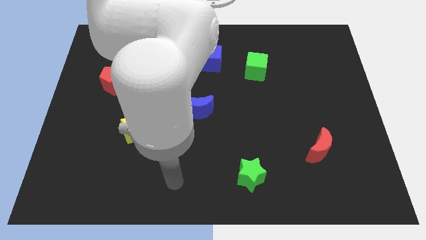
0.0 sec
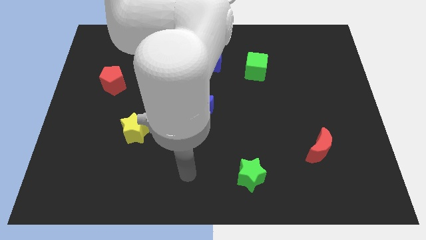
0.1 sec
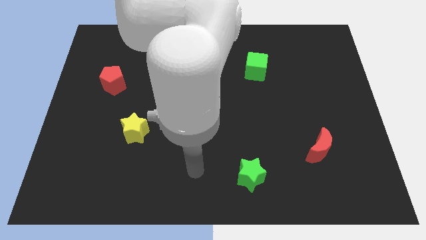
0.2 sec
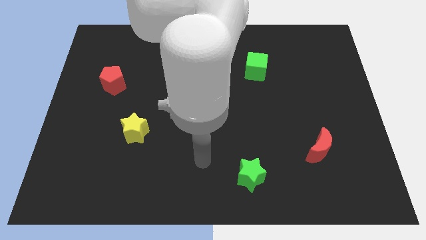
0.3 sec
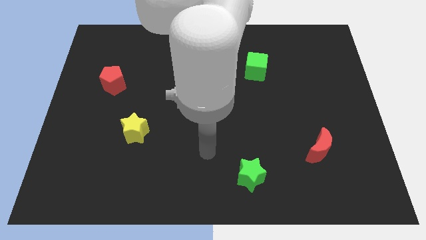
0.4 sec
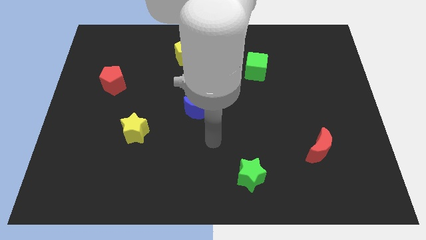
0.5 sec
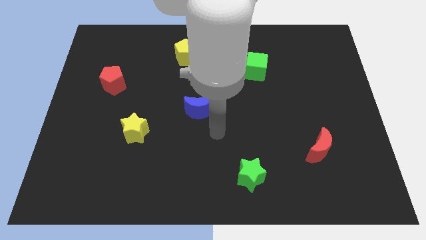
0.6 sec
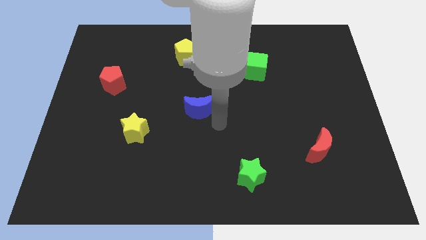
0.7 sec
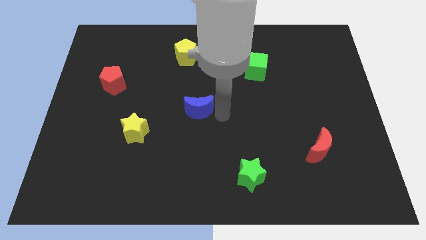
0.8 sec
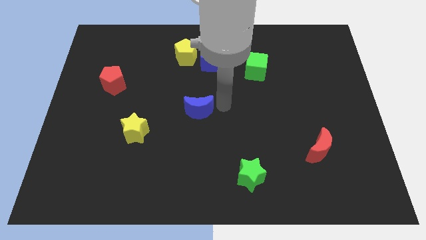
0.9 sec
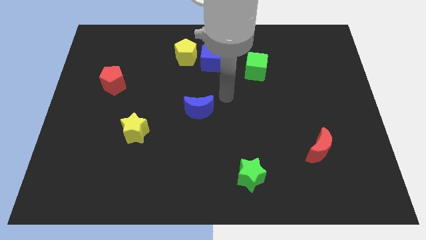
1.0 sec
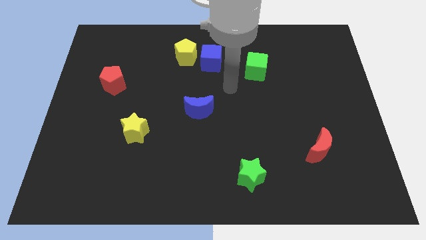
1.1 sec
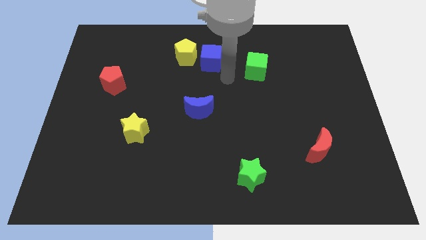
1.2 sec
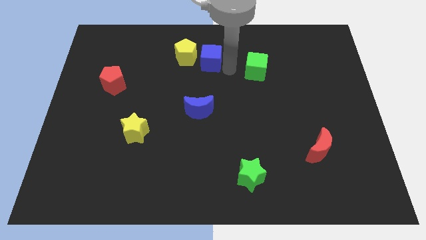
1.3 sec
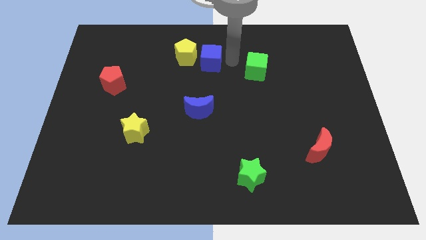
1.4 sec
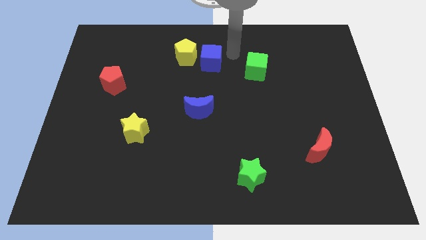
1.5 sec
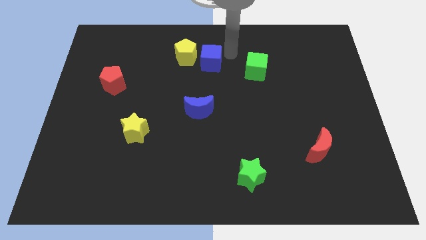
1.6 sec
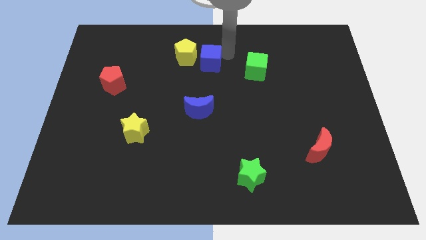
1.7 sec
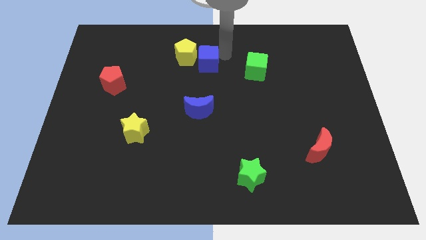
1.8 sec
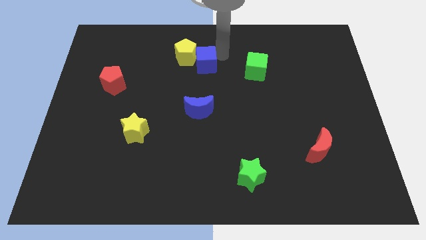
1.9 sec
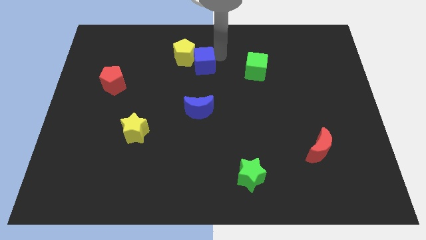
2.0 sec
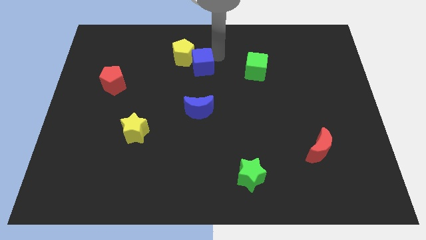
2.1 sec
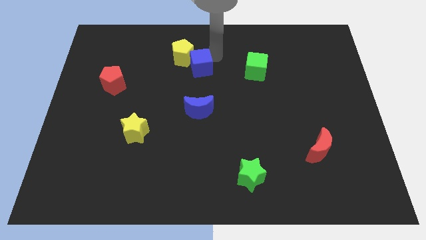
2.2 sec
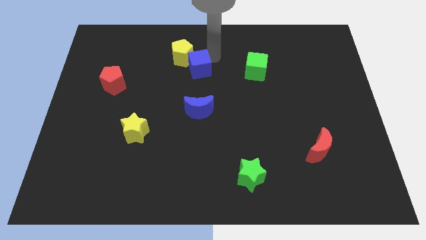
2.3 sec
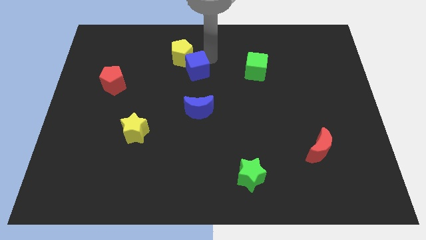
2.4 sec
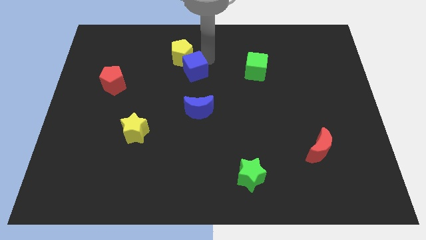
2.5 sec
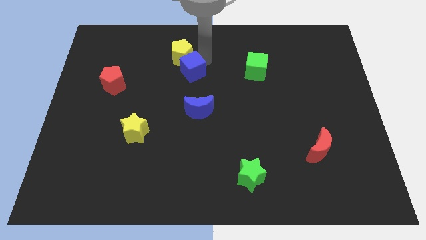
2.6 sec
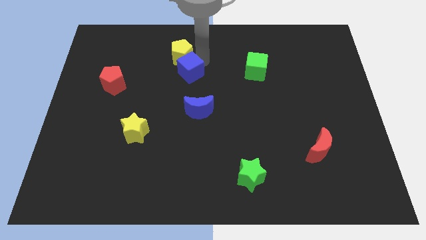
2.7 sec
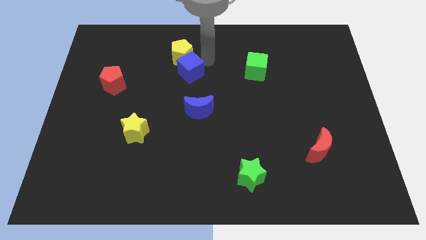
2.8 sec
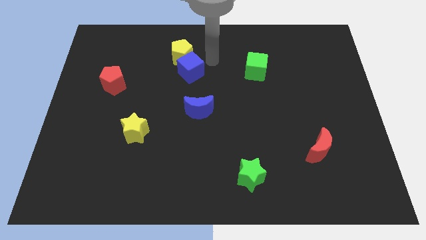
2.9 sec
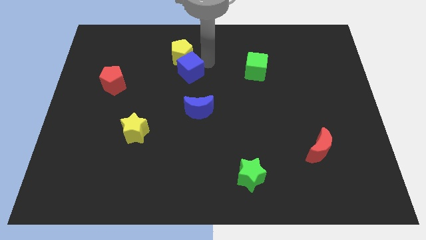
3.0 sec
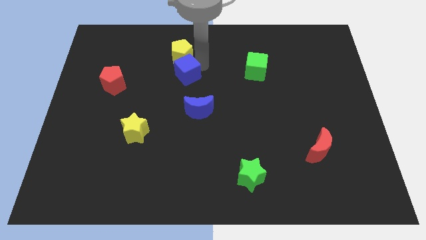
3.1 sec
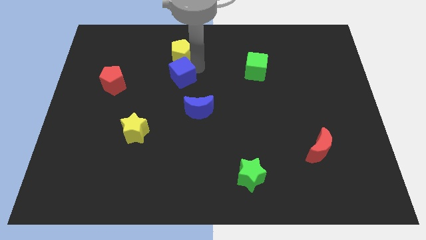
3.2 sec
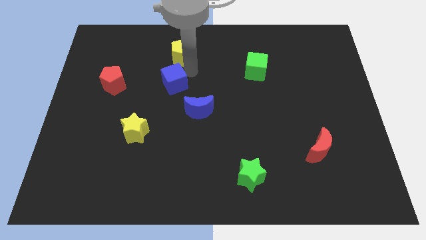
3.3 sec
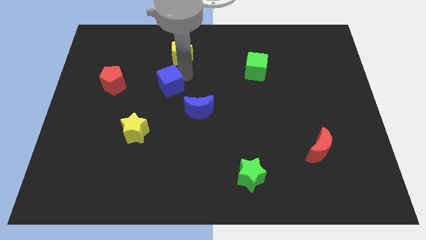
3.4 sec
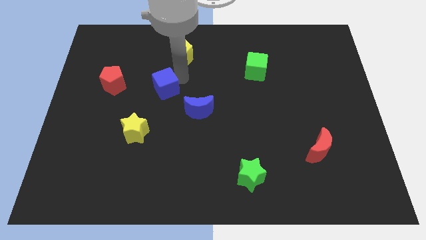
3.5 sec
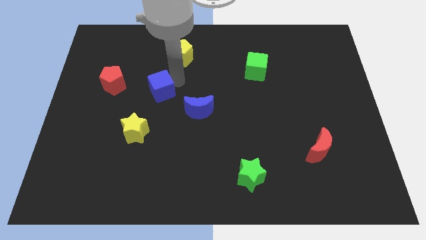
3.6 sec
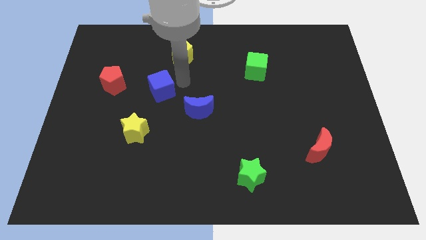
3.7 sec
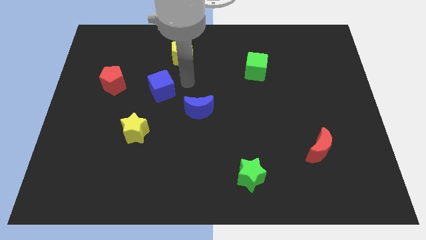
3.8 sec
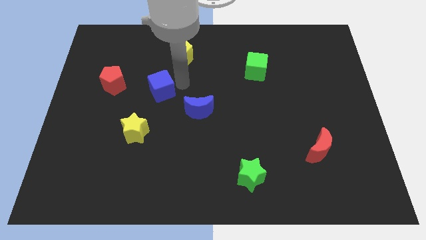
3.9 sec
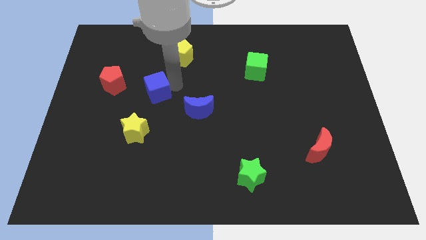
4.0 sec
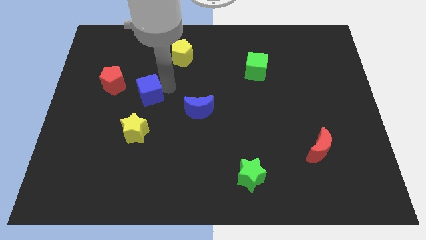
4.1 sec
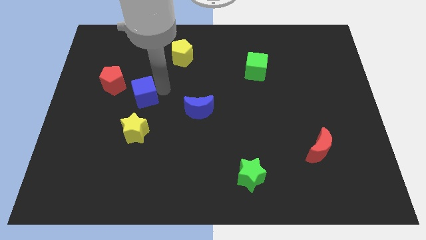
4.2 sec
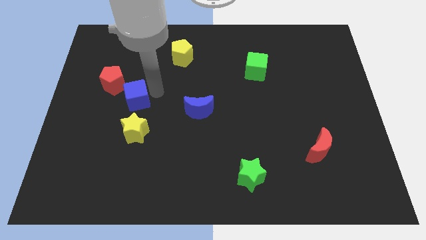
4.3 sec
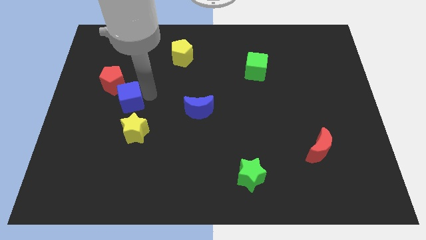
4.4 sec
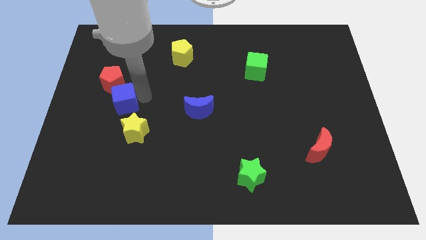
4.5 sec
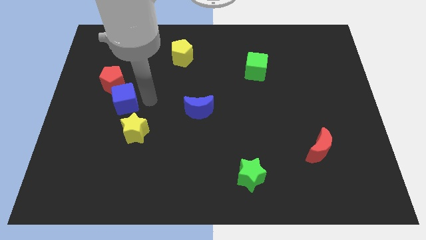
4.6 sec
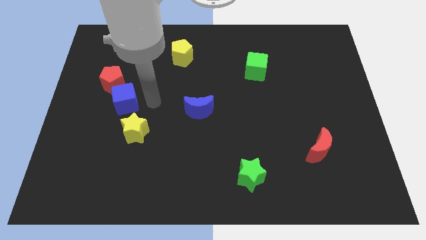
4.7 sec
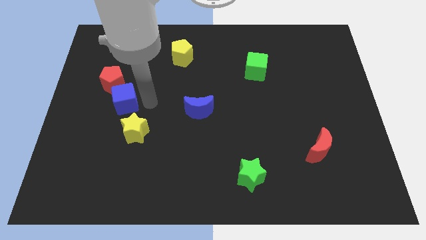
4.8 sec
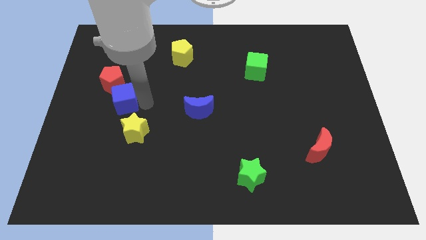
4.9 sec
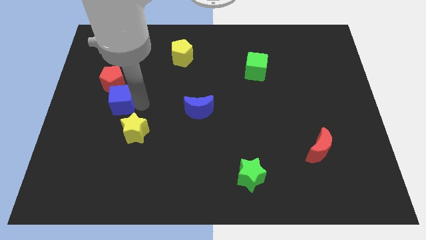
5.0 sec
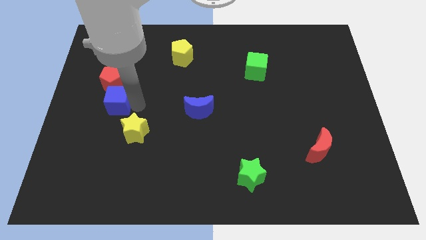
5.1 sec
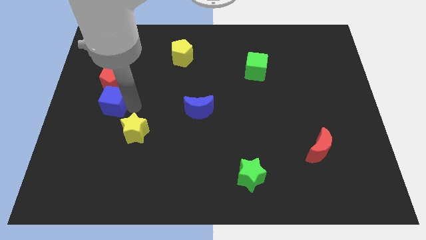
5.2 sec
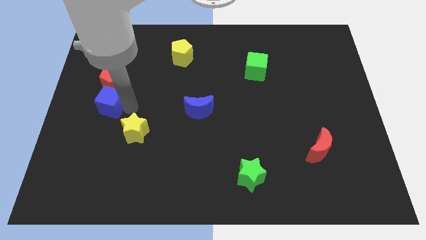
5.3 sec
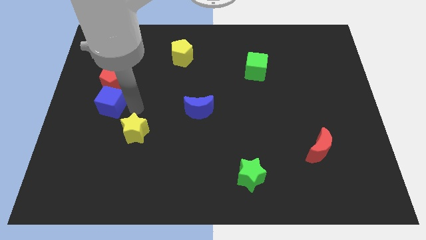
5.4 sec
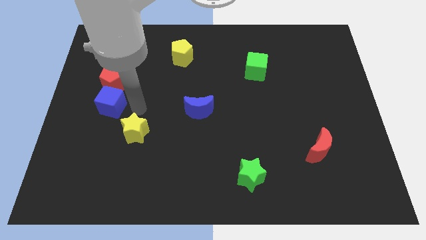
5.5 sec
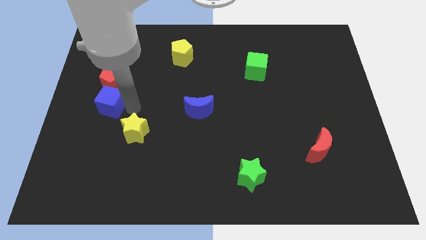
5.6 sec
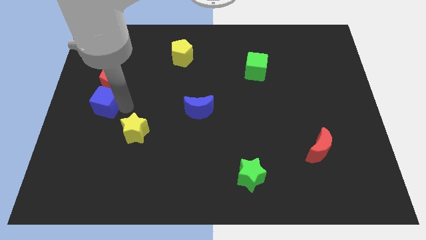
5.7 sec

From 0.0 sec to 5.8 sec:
slide the blue cube to the center left

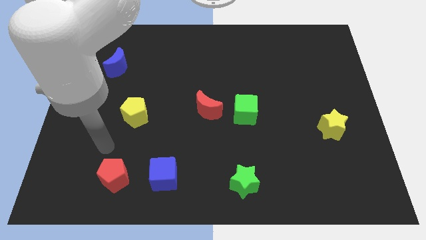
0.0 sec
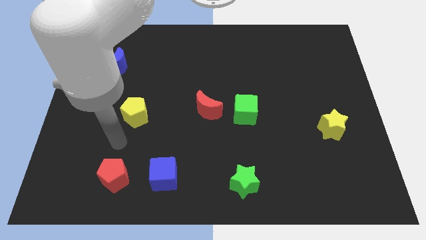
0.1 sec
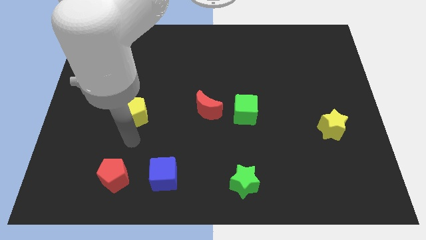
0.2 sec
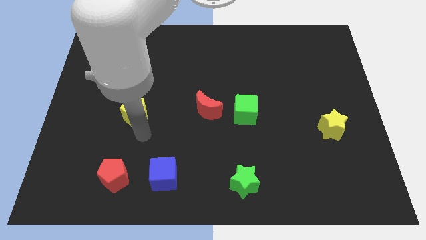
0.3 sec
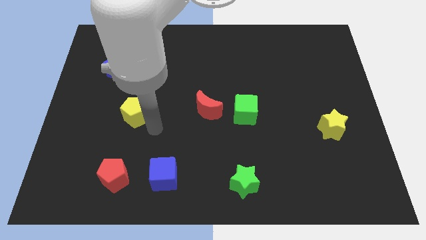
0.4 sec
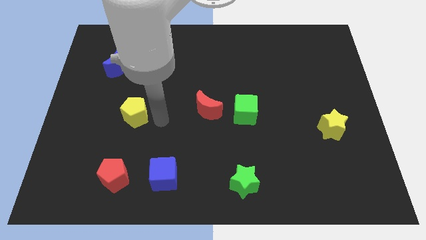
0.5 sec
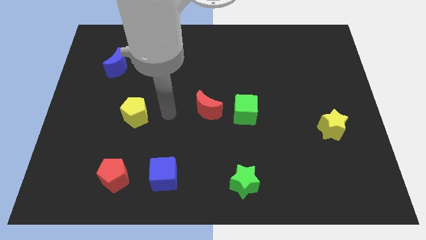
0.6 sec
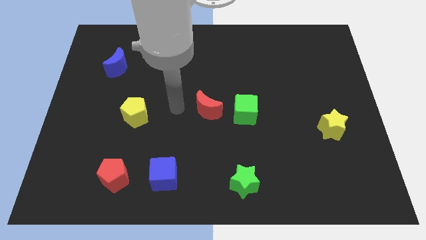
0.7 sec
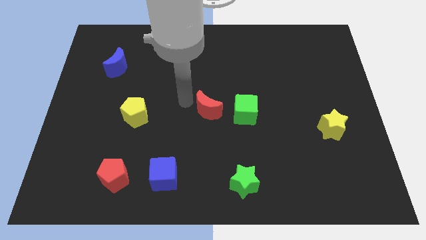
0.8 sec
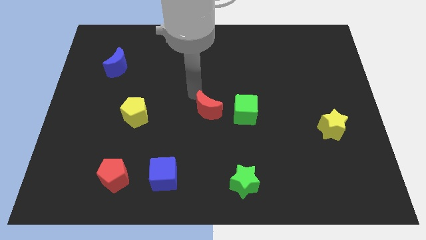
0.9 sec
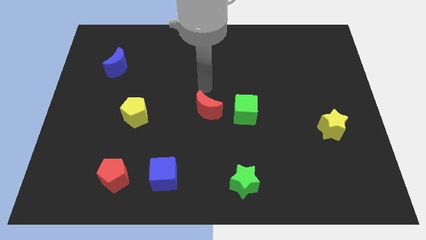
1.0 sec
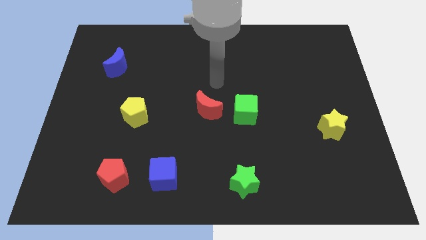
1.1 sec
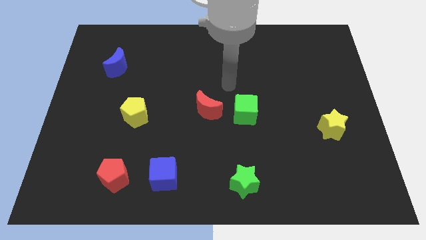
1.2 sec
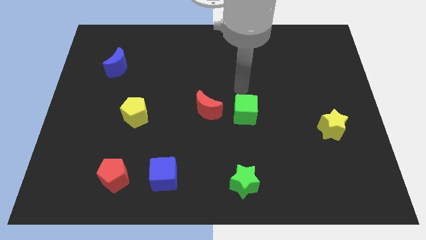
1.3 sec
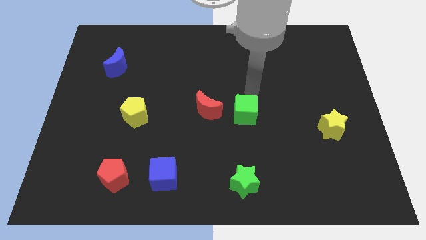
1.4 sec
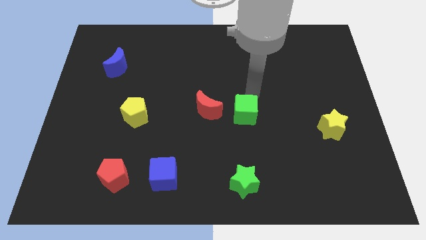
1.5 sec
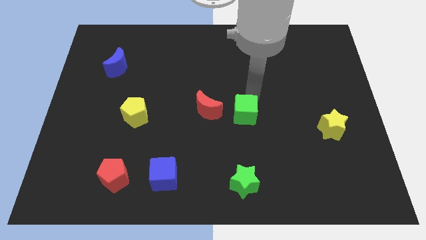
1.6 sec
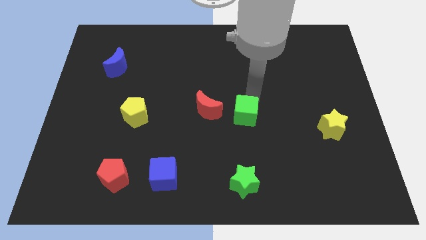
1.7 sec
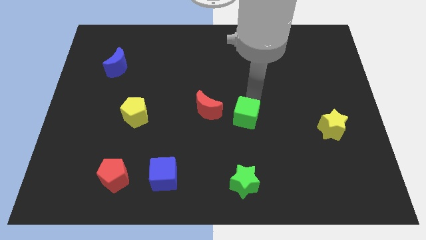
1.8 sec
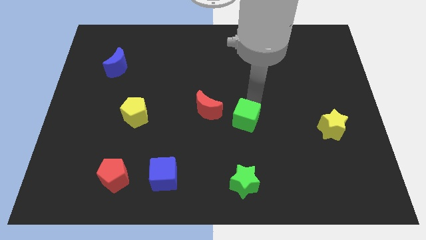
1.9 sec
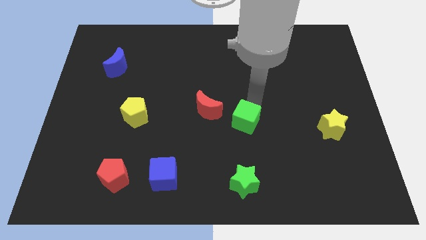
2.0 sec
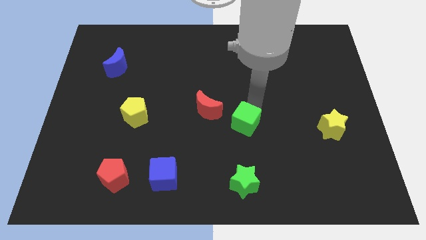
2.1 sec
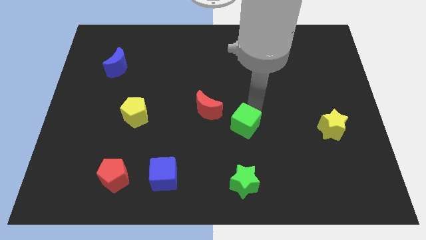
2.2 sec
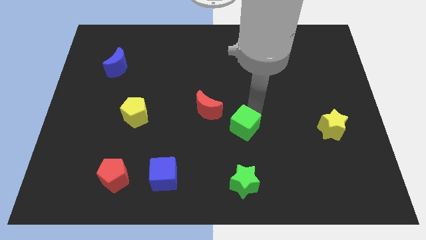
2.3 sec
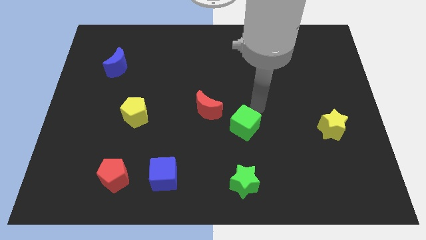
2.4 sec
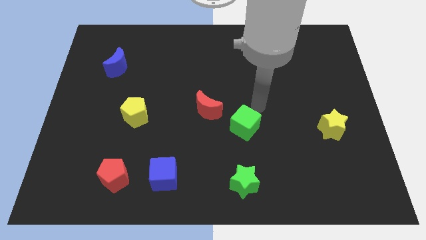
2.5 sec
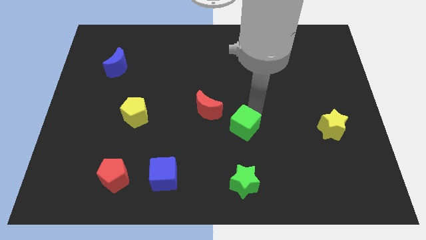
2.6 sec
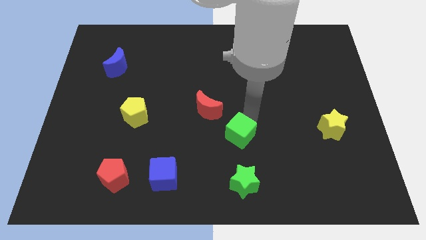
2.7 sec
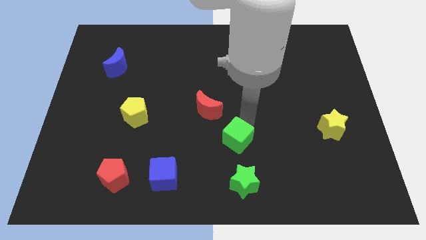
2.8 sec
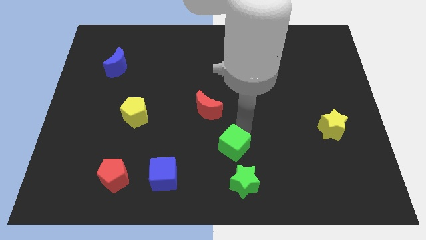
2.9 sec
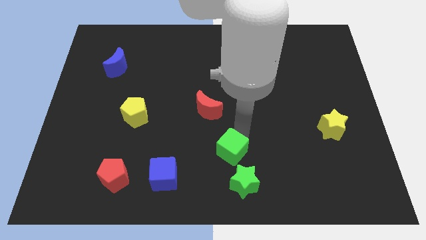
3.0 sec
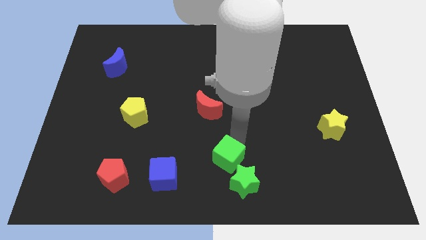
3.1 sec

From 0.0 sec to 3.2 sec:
push the green cube to the bottom
